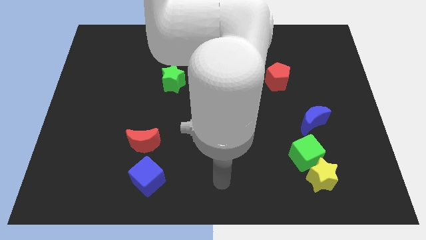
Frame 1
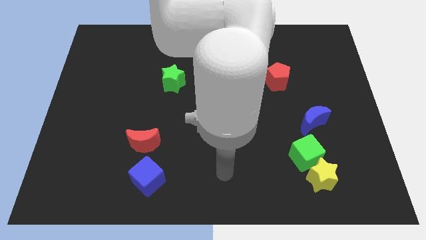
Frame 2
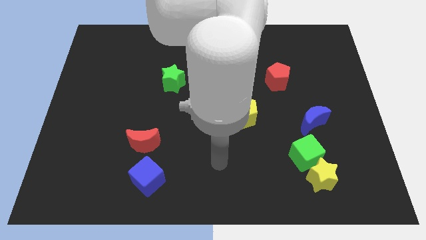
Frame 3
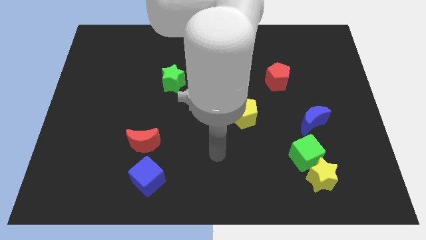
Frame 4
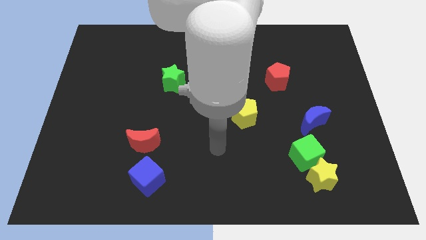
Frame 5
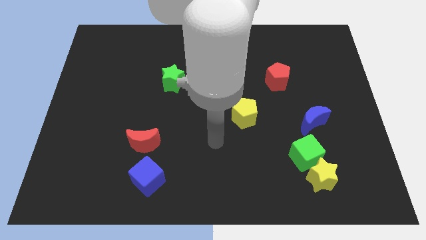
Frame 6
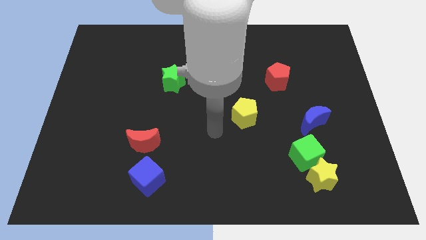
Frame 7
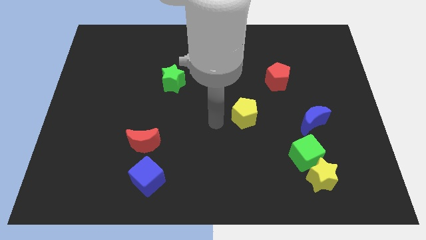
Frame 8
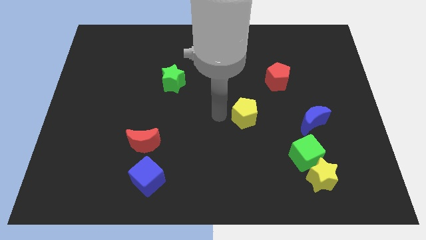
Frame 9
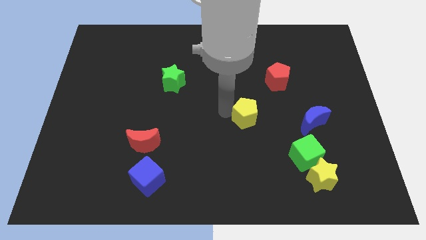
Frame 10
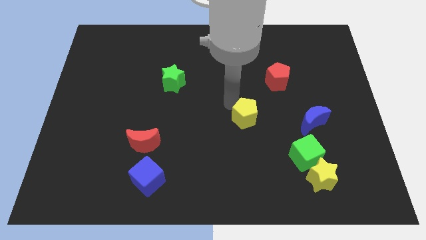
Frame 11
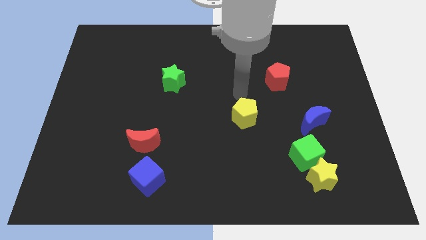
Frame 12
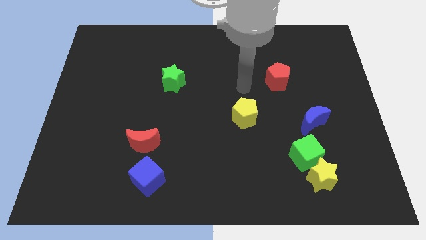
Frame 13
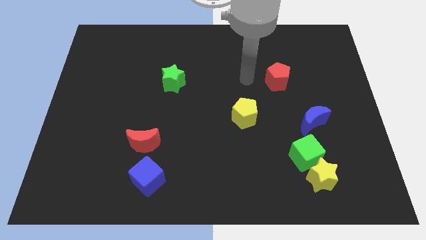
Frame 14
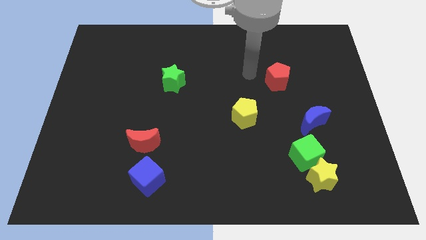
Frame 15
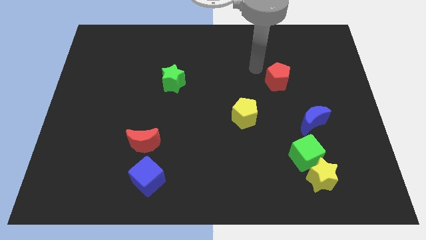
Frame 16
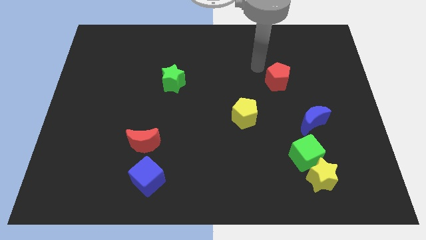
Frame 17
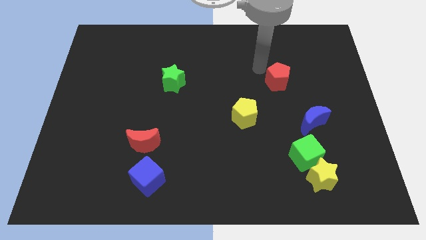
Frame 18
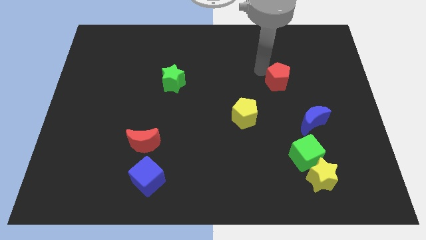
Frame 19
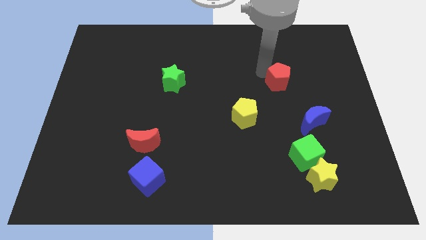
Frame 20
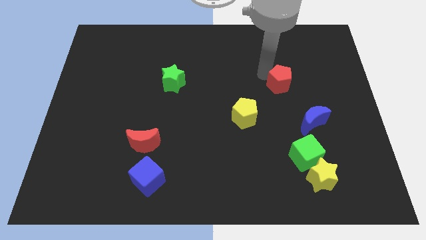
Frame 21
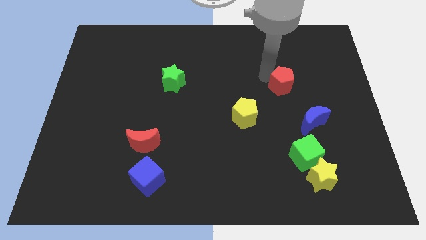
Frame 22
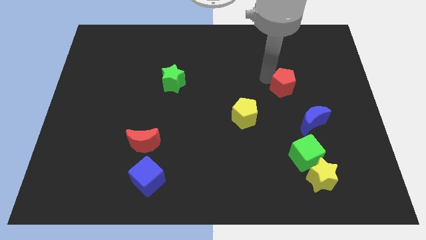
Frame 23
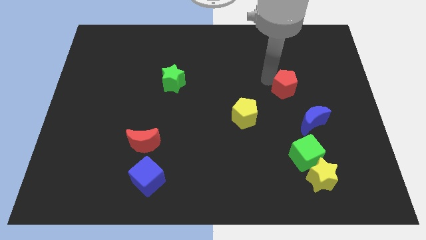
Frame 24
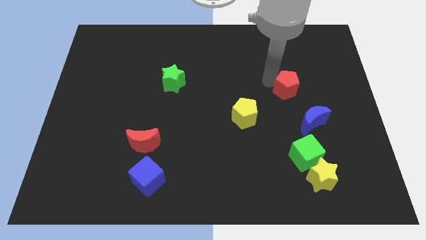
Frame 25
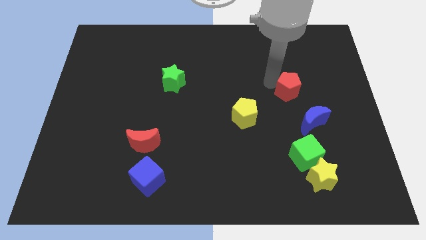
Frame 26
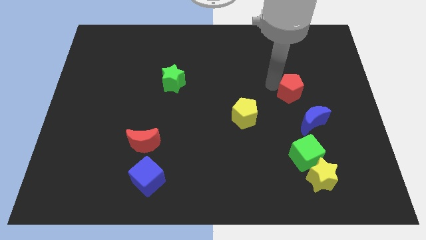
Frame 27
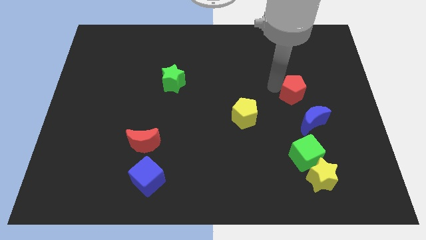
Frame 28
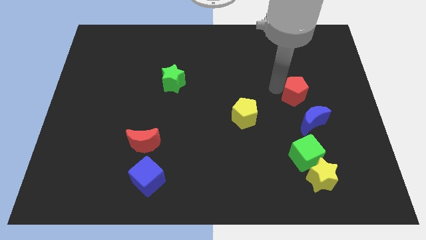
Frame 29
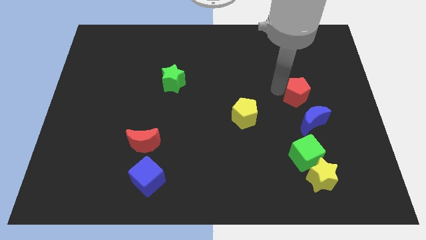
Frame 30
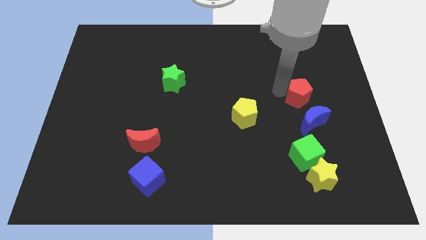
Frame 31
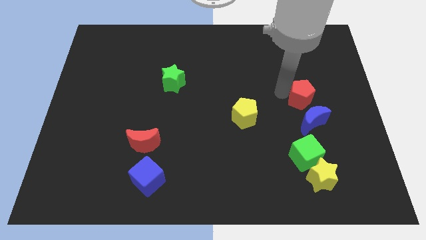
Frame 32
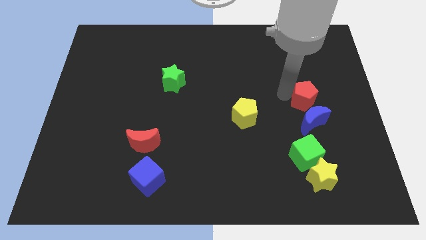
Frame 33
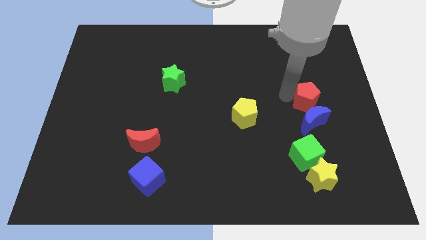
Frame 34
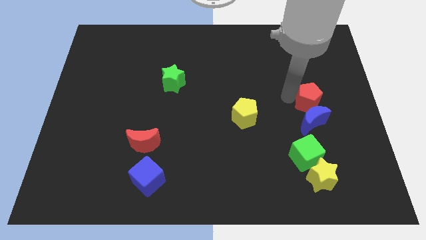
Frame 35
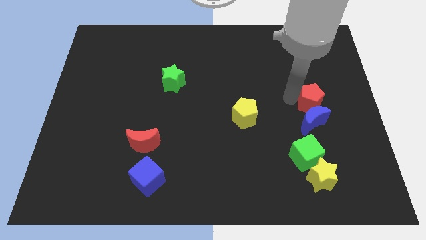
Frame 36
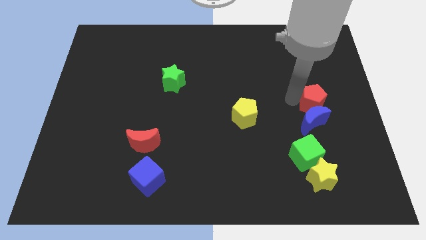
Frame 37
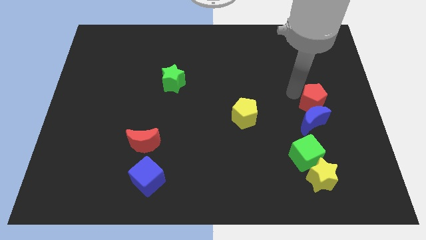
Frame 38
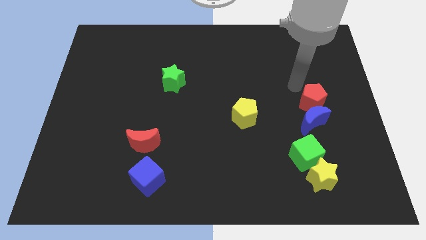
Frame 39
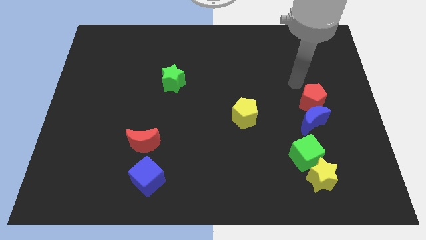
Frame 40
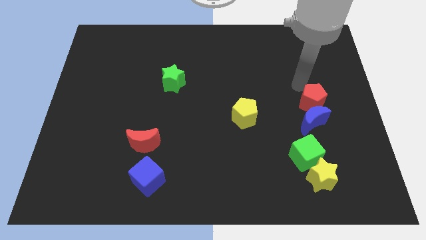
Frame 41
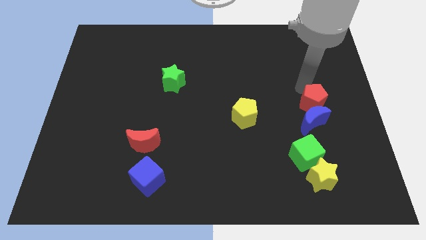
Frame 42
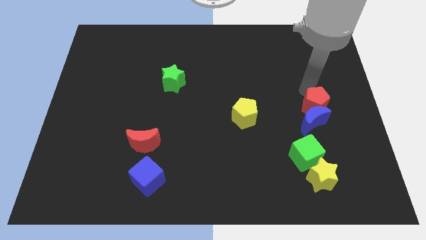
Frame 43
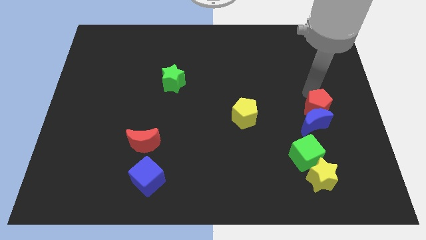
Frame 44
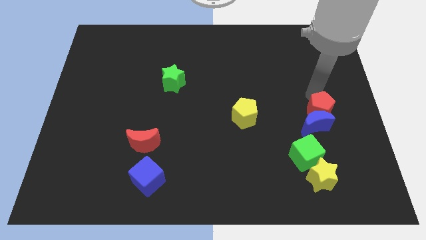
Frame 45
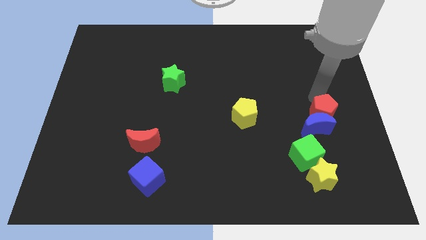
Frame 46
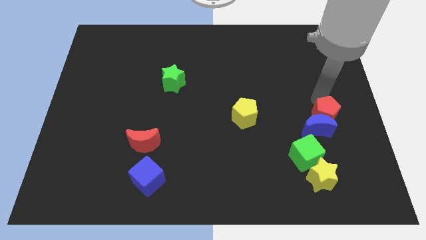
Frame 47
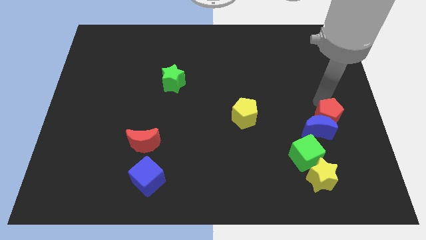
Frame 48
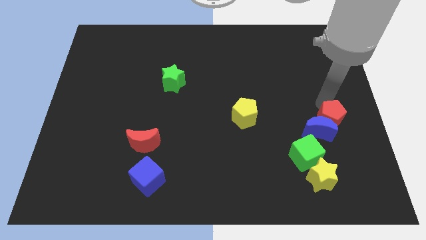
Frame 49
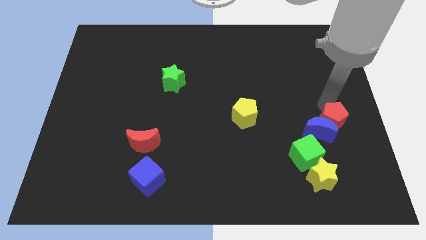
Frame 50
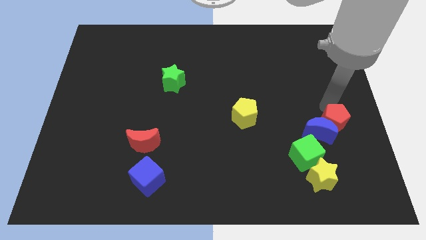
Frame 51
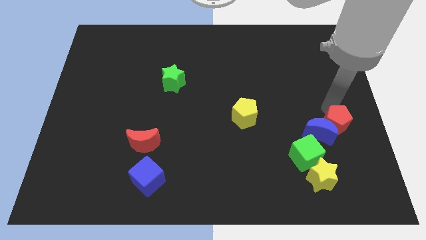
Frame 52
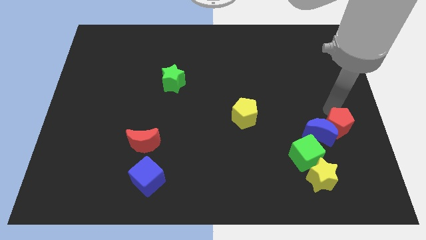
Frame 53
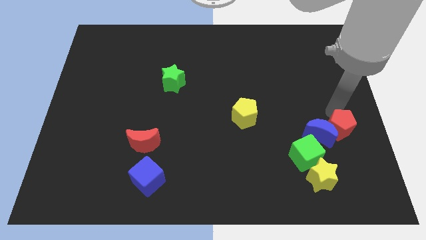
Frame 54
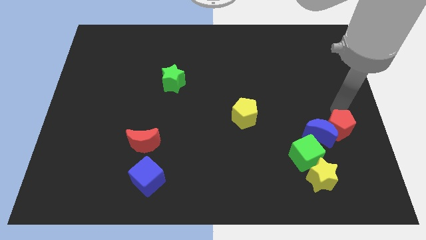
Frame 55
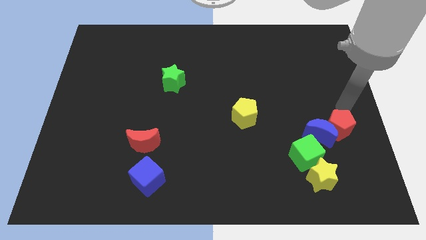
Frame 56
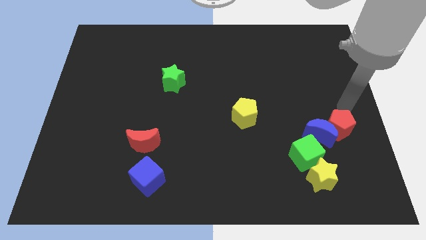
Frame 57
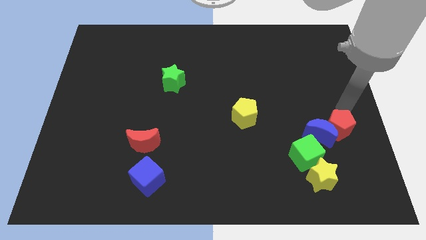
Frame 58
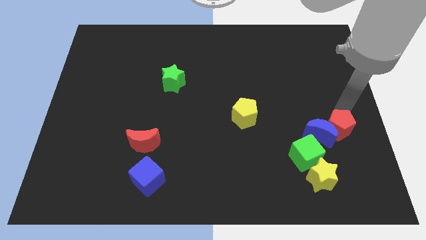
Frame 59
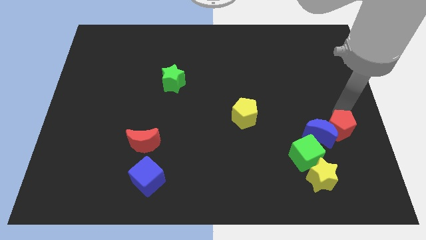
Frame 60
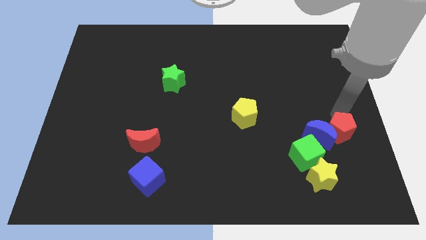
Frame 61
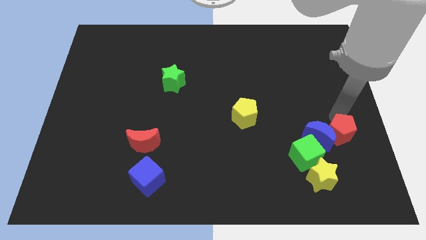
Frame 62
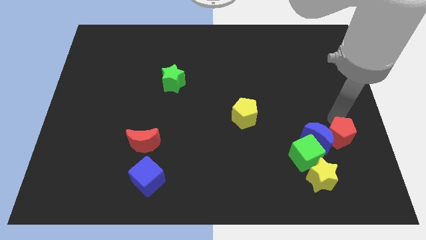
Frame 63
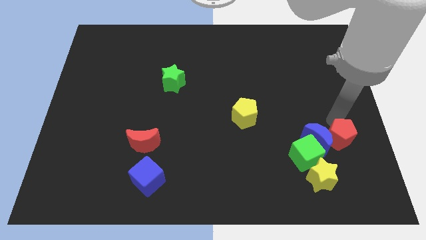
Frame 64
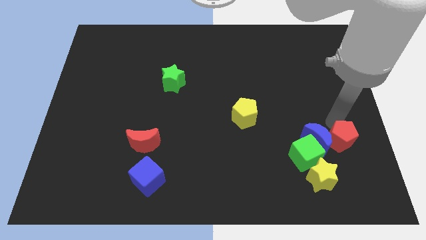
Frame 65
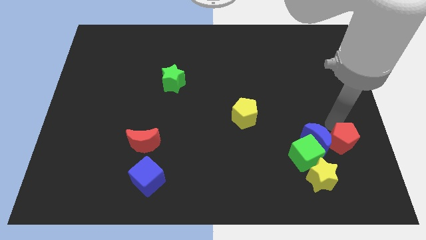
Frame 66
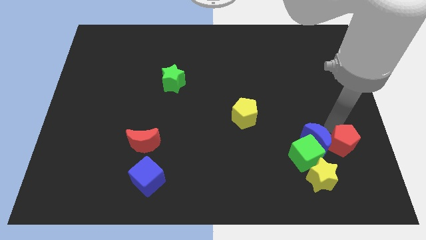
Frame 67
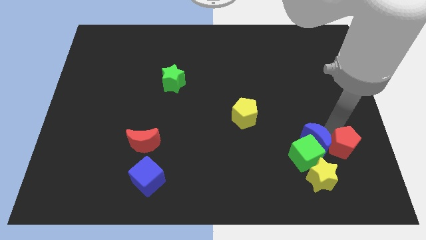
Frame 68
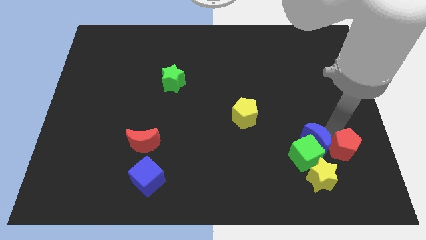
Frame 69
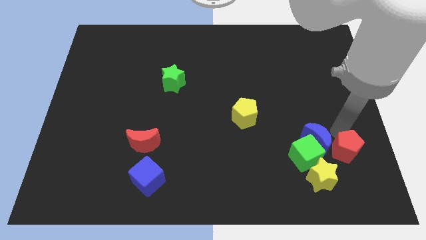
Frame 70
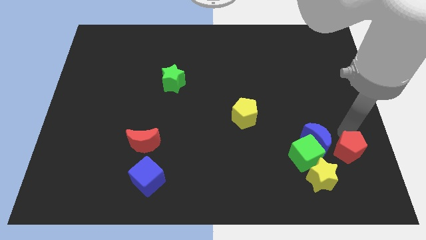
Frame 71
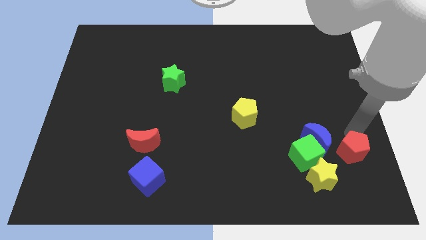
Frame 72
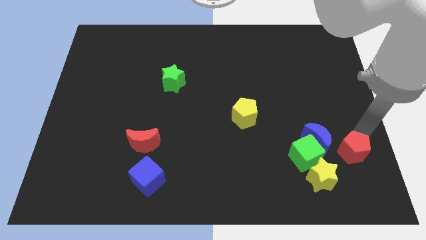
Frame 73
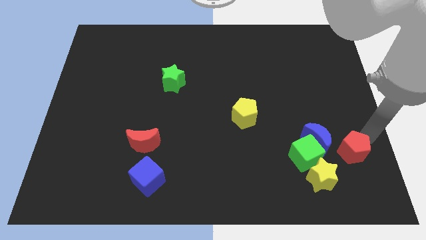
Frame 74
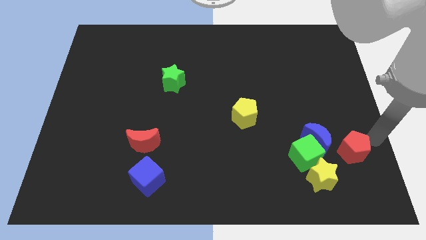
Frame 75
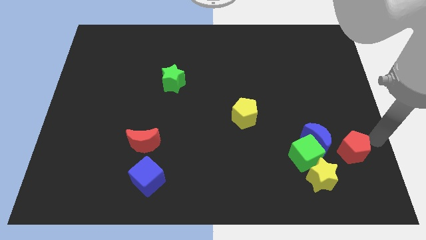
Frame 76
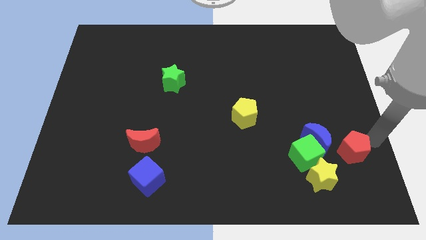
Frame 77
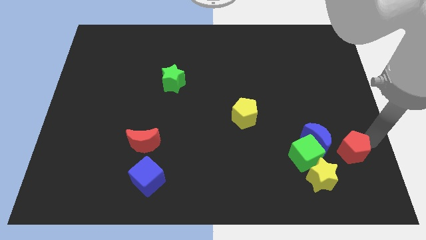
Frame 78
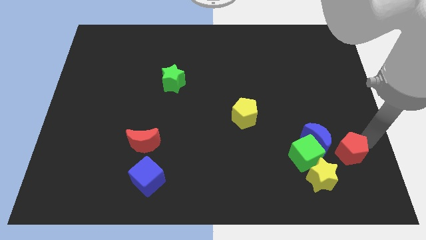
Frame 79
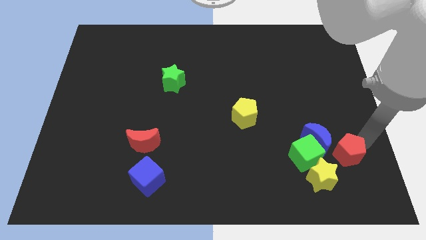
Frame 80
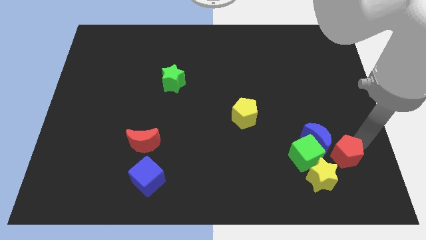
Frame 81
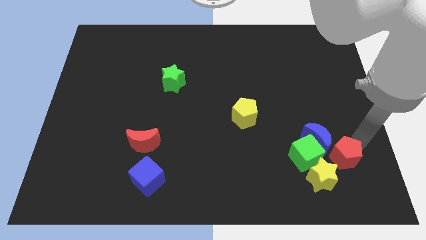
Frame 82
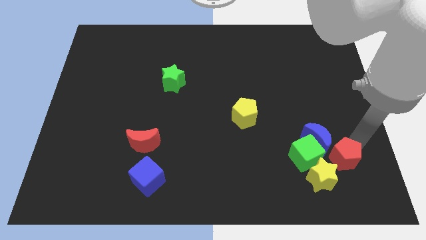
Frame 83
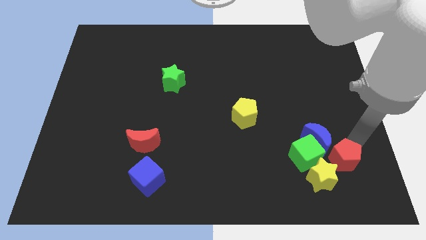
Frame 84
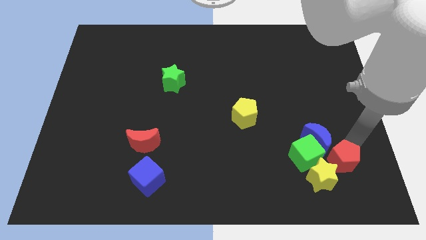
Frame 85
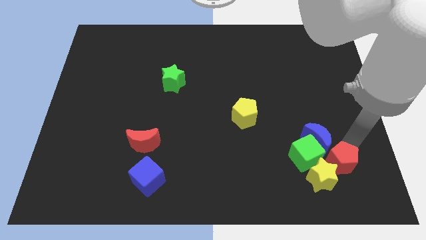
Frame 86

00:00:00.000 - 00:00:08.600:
slide the red pentagon to the yellow star
